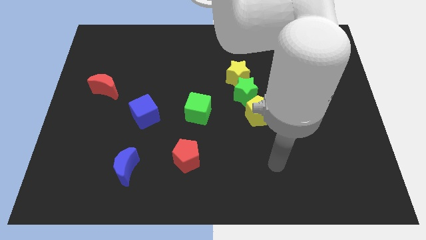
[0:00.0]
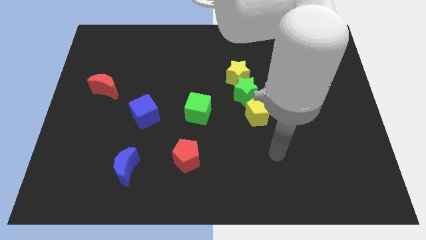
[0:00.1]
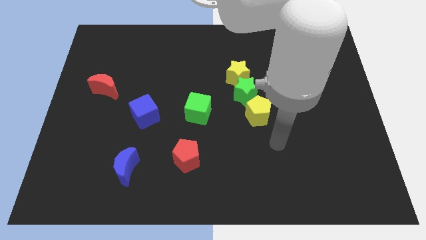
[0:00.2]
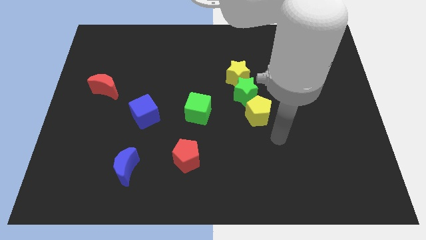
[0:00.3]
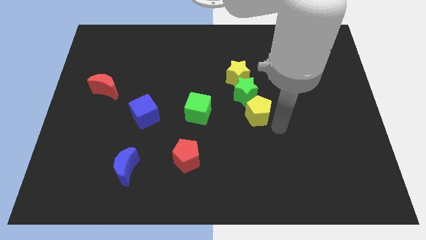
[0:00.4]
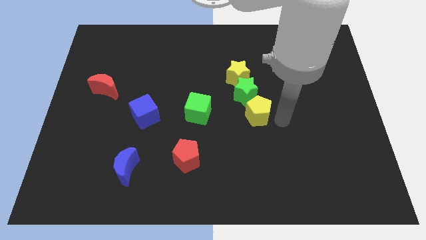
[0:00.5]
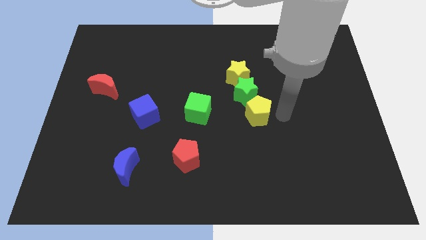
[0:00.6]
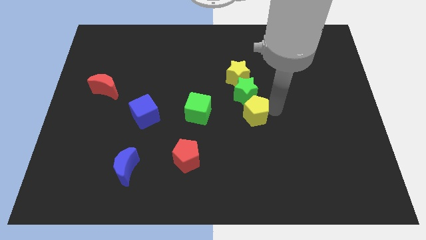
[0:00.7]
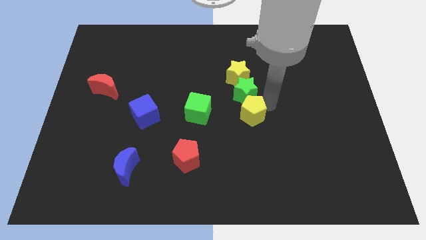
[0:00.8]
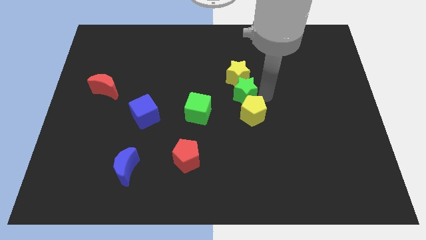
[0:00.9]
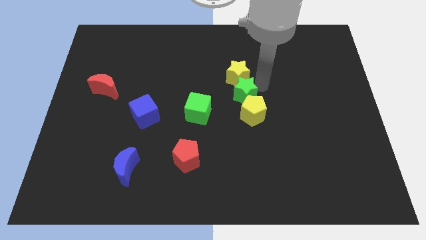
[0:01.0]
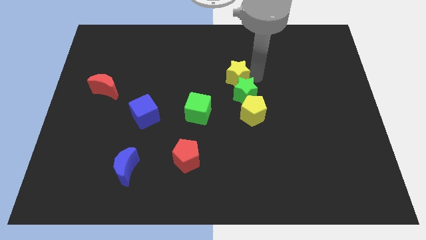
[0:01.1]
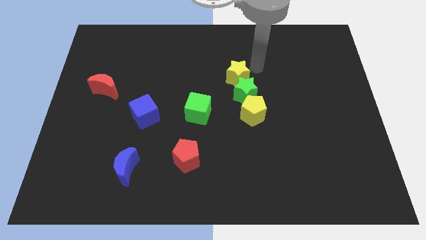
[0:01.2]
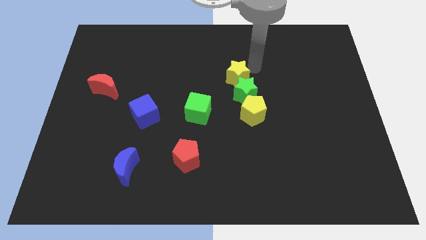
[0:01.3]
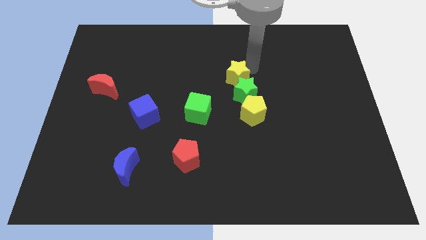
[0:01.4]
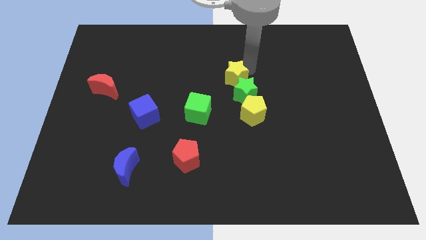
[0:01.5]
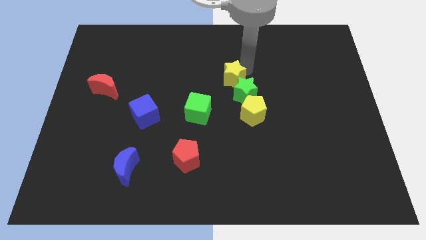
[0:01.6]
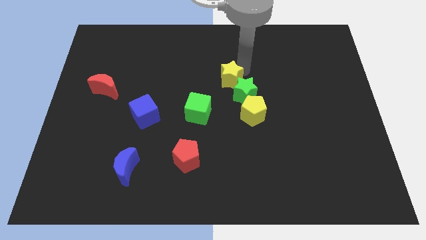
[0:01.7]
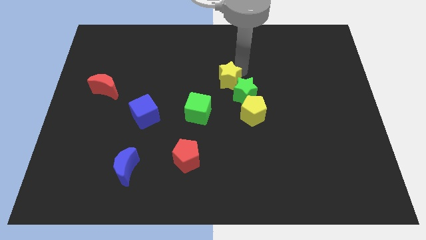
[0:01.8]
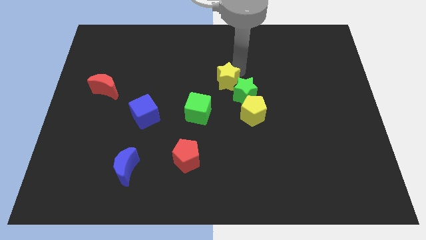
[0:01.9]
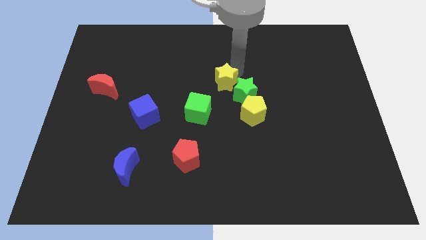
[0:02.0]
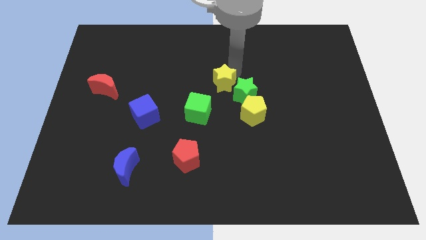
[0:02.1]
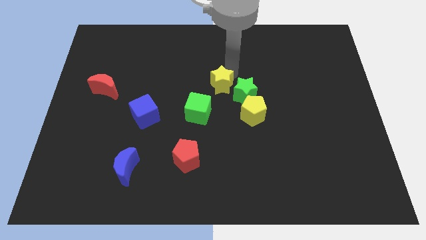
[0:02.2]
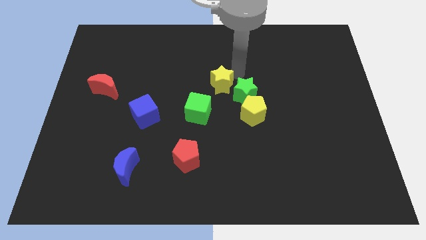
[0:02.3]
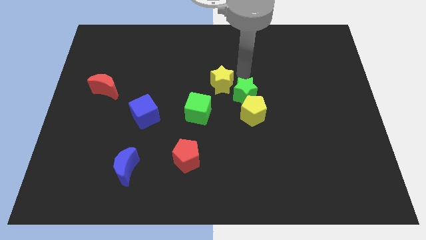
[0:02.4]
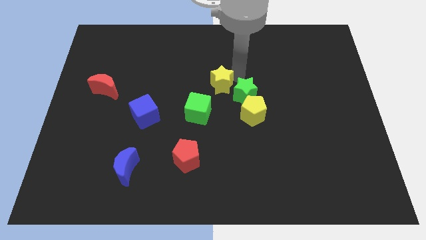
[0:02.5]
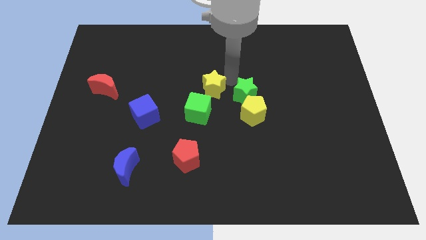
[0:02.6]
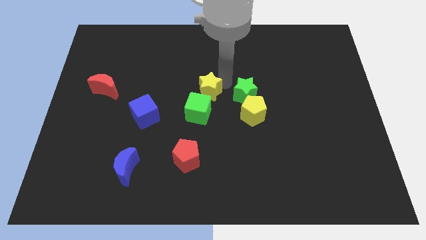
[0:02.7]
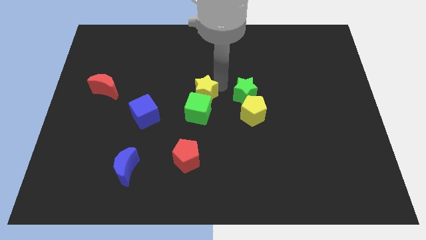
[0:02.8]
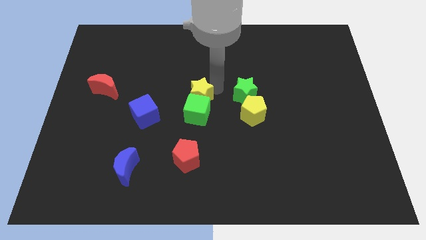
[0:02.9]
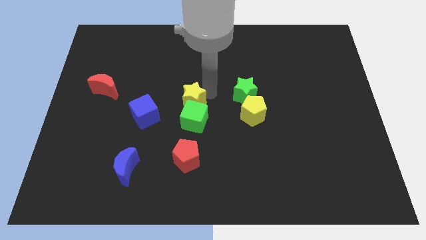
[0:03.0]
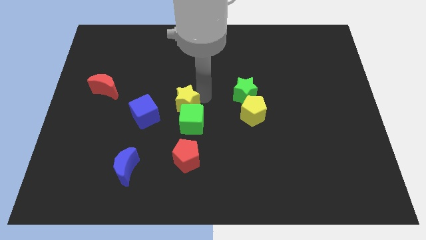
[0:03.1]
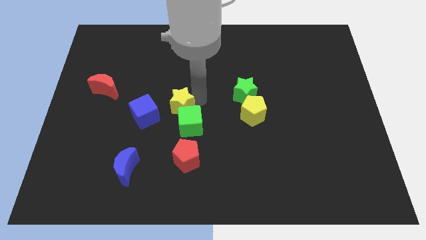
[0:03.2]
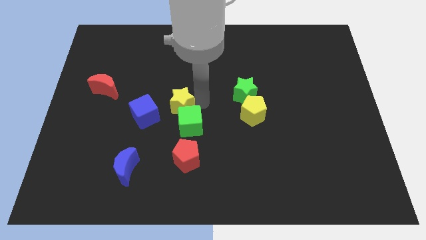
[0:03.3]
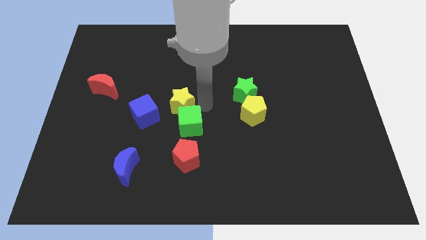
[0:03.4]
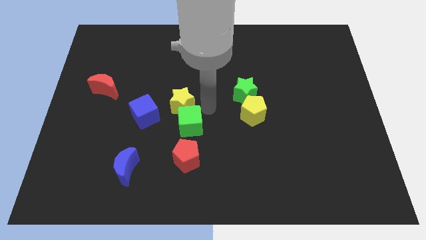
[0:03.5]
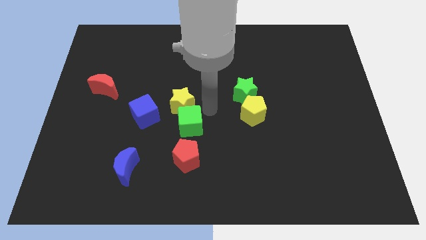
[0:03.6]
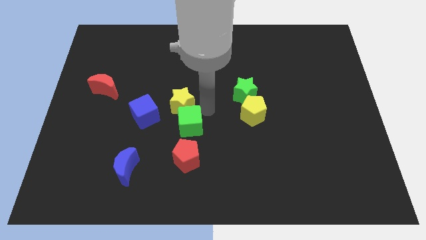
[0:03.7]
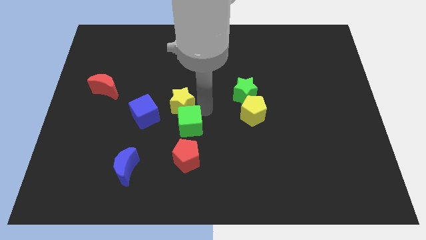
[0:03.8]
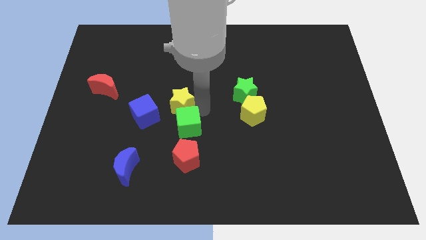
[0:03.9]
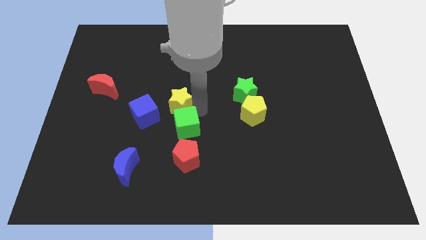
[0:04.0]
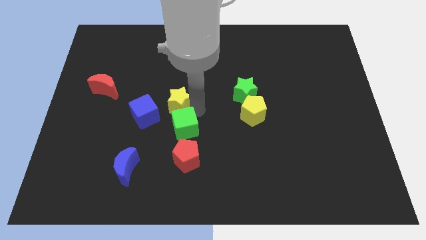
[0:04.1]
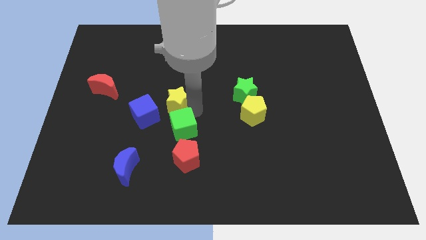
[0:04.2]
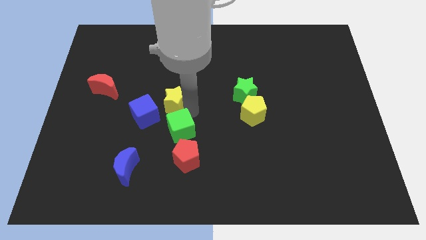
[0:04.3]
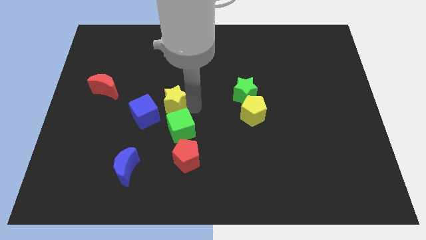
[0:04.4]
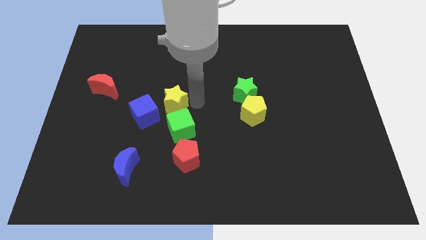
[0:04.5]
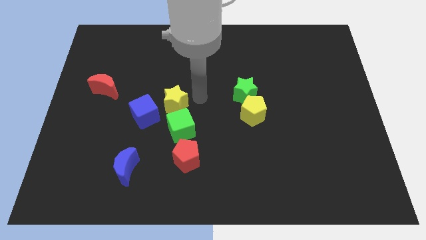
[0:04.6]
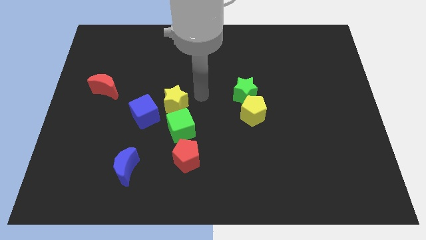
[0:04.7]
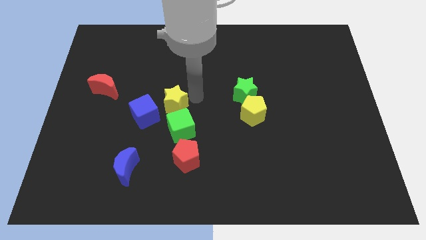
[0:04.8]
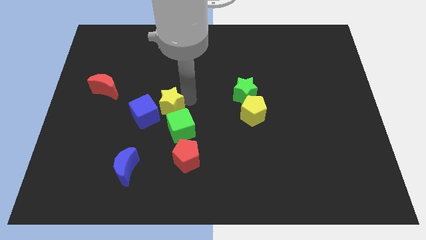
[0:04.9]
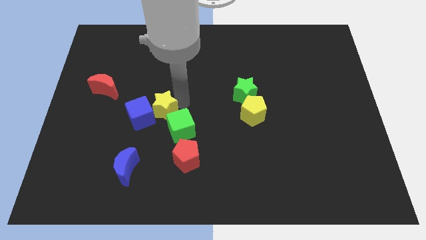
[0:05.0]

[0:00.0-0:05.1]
put the yellow star close to the blue cube

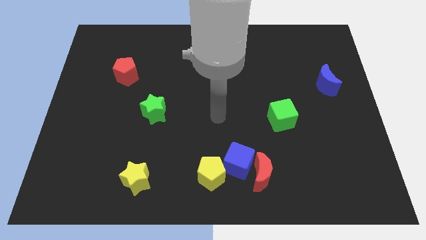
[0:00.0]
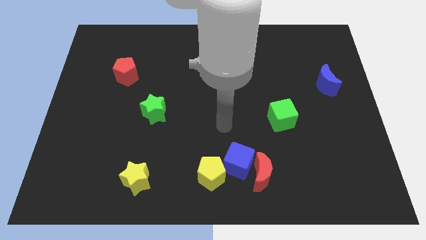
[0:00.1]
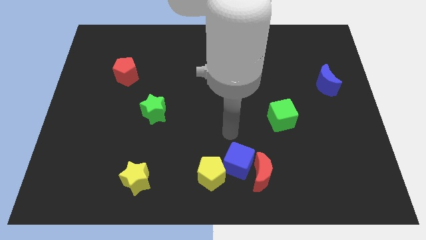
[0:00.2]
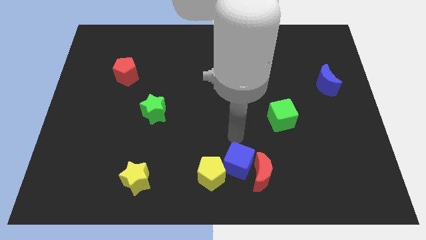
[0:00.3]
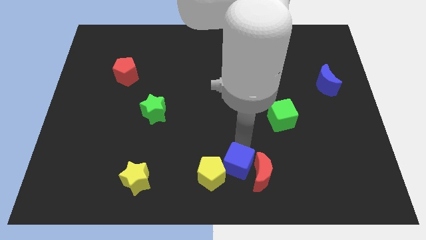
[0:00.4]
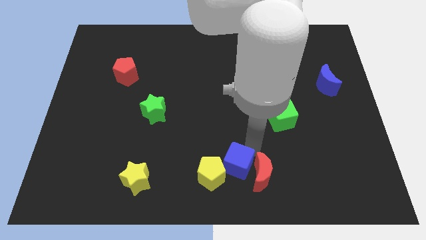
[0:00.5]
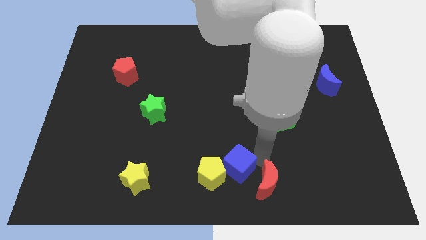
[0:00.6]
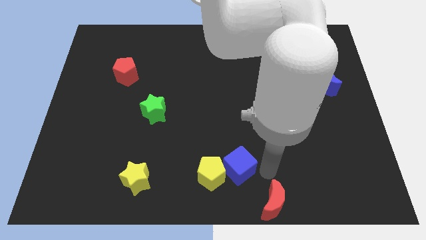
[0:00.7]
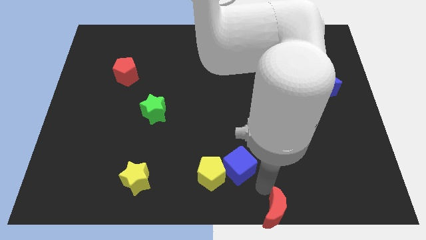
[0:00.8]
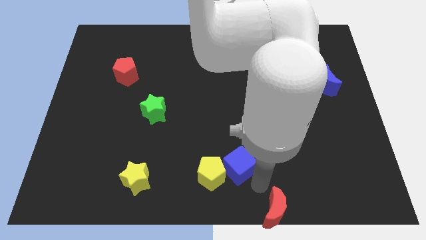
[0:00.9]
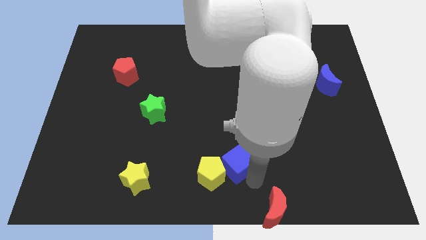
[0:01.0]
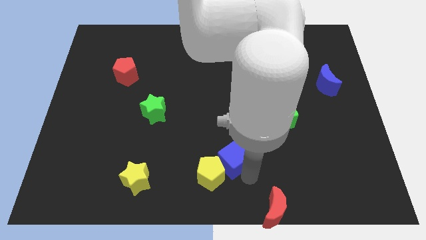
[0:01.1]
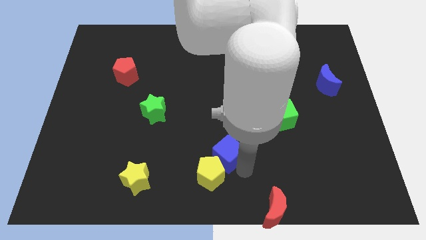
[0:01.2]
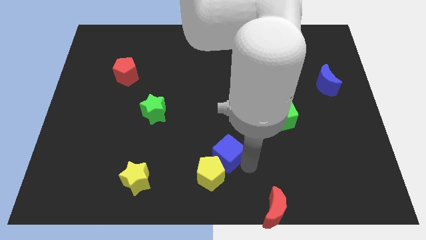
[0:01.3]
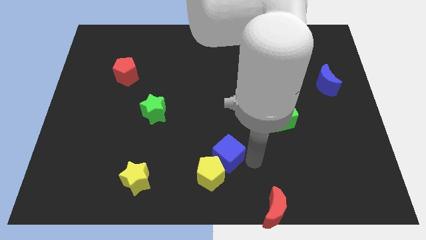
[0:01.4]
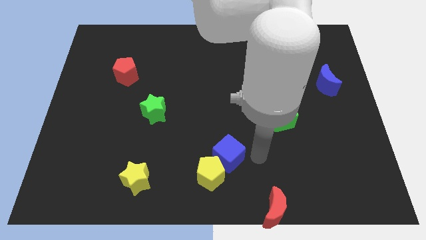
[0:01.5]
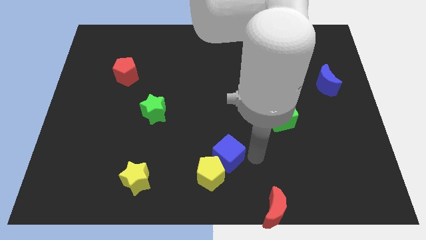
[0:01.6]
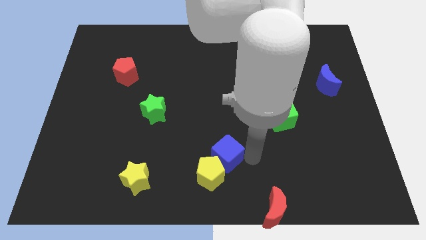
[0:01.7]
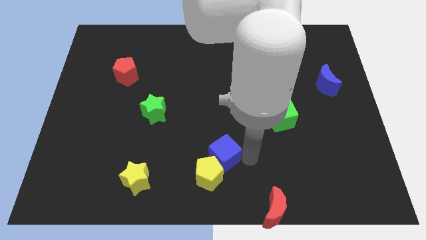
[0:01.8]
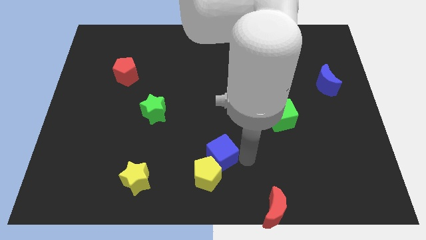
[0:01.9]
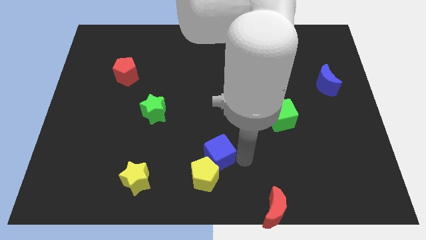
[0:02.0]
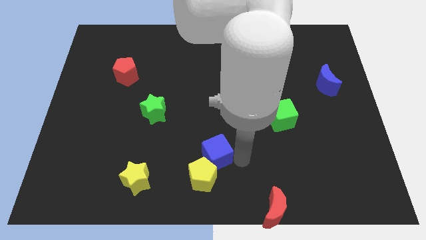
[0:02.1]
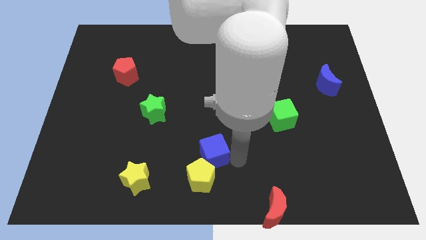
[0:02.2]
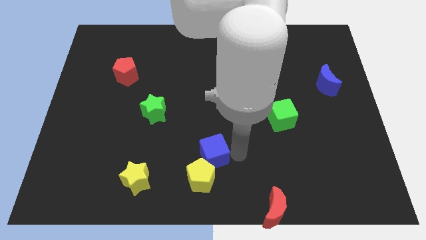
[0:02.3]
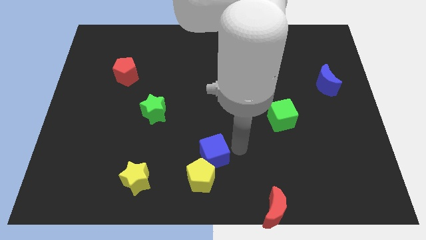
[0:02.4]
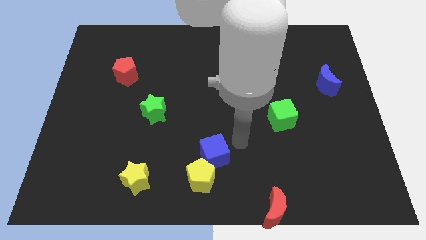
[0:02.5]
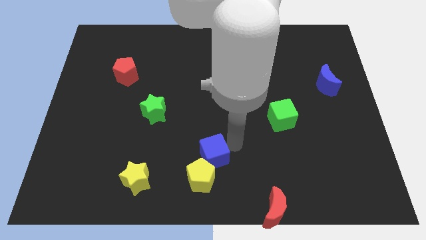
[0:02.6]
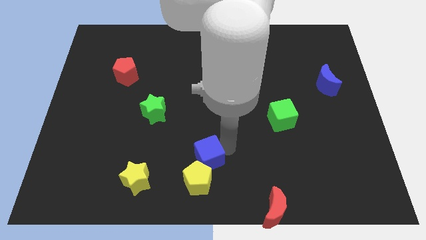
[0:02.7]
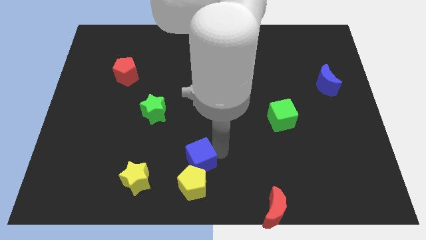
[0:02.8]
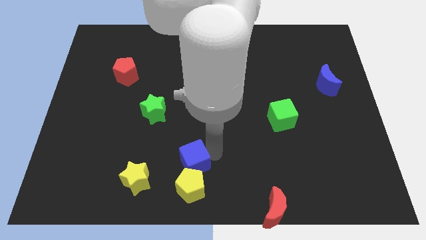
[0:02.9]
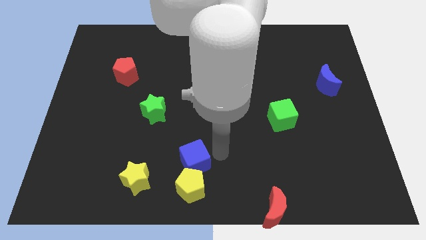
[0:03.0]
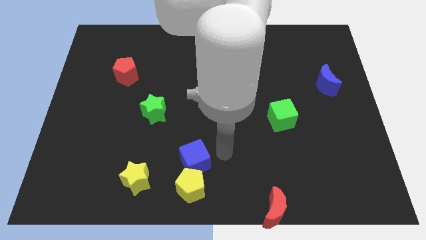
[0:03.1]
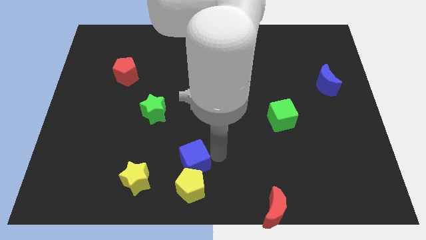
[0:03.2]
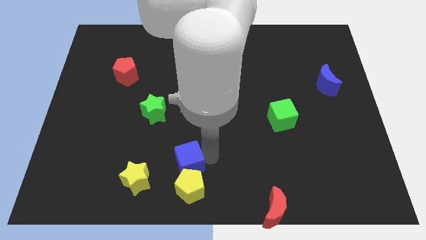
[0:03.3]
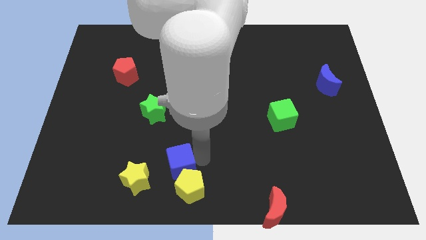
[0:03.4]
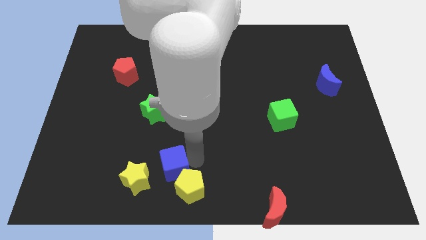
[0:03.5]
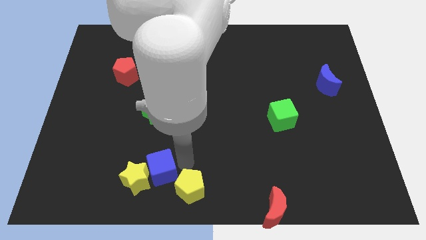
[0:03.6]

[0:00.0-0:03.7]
push the blue cube close to the yellow star
